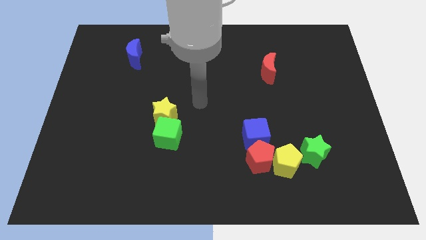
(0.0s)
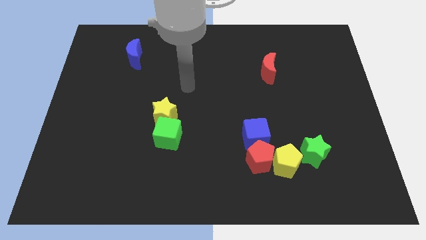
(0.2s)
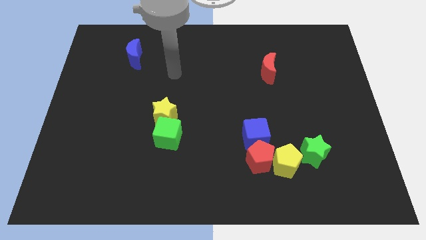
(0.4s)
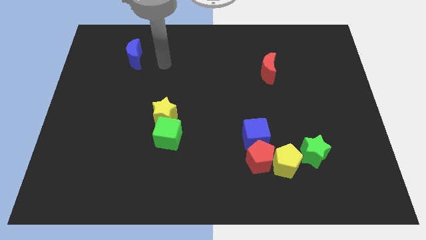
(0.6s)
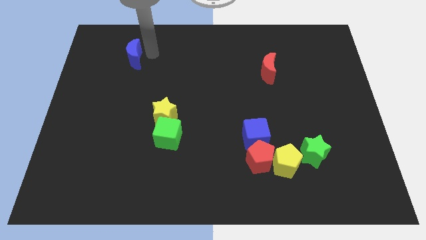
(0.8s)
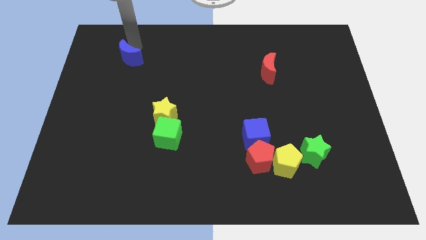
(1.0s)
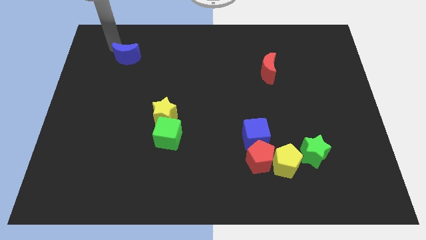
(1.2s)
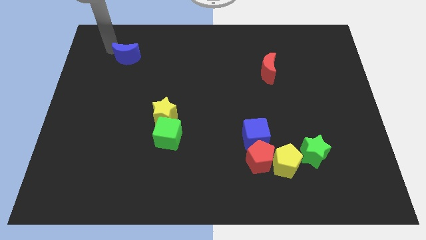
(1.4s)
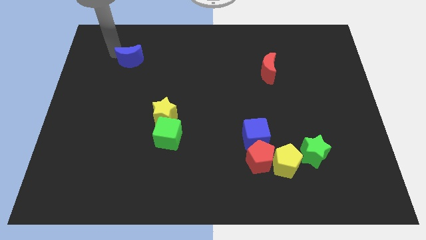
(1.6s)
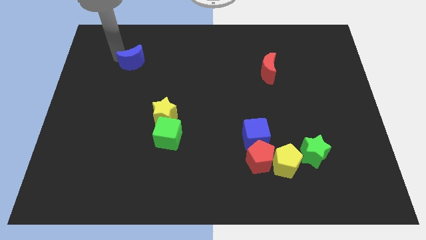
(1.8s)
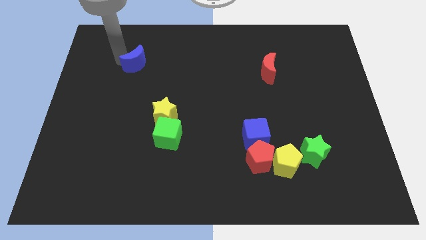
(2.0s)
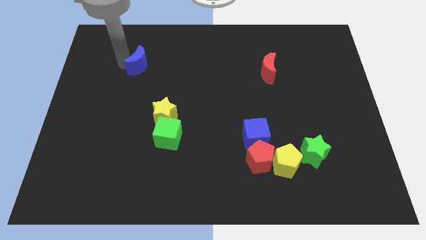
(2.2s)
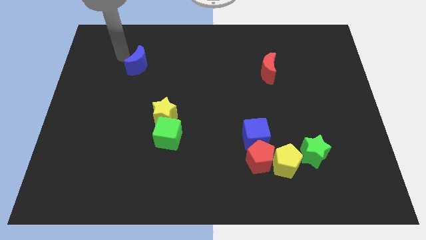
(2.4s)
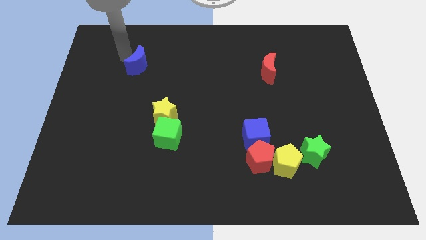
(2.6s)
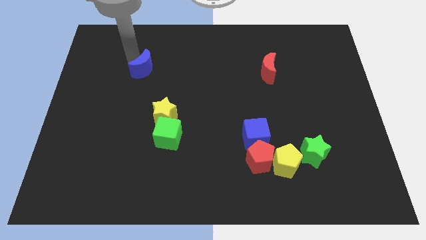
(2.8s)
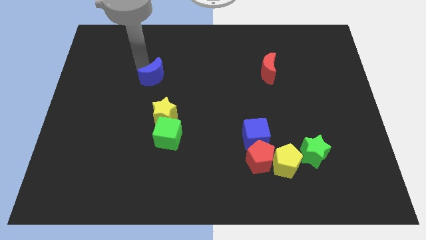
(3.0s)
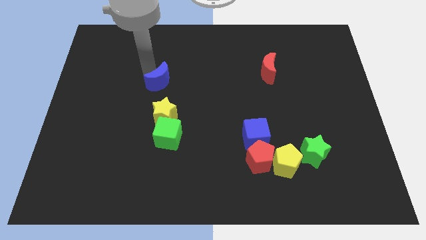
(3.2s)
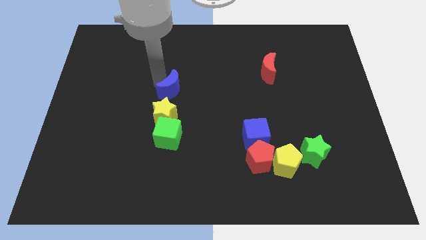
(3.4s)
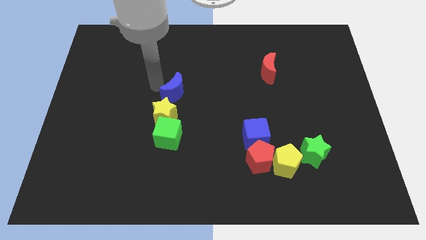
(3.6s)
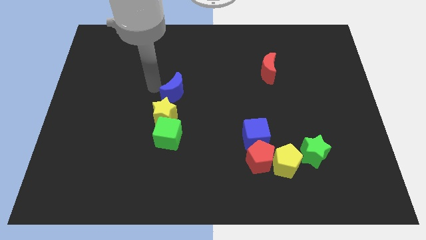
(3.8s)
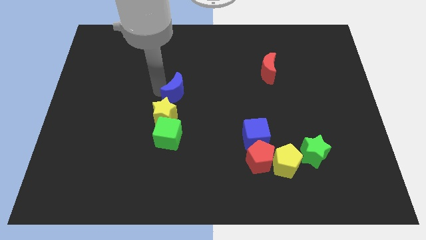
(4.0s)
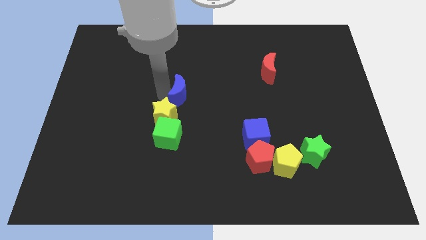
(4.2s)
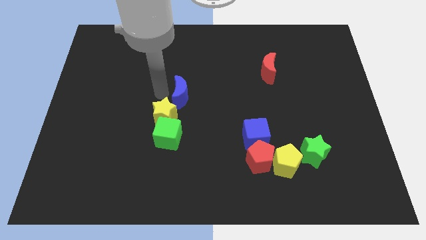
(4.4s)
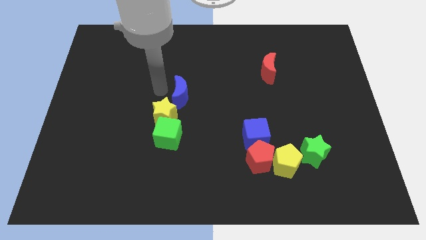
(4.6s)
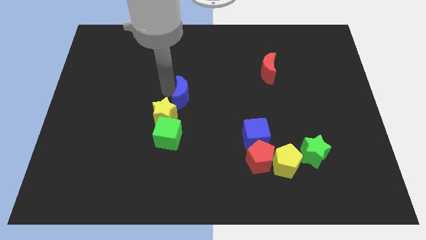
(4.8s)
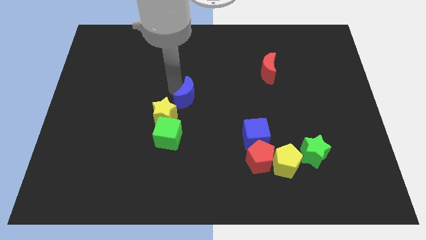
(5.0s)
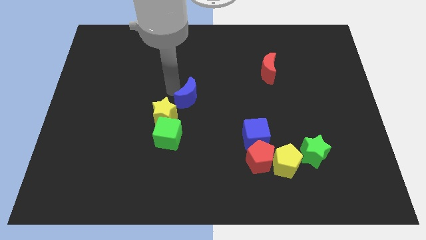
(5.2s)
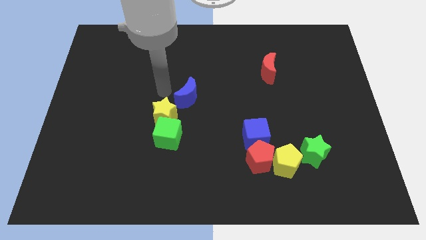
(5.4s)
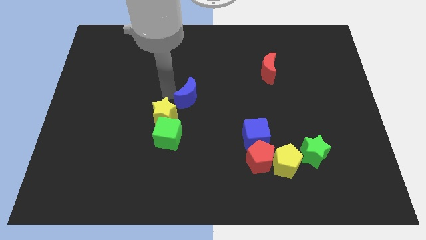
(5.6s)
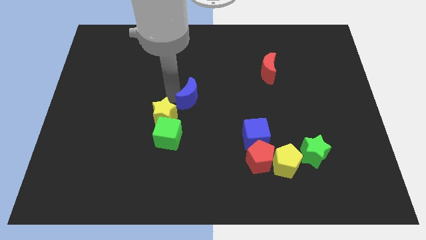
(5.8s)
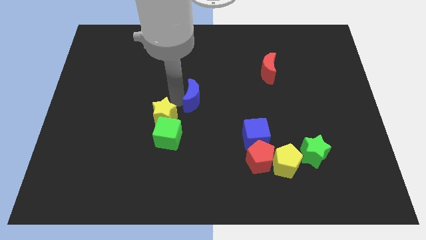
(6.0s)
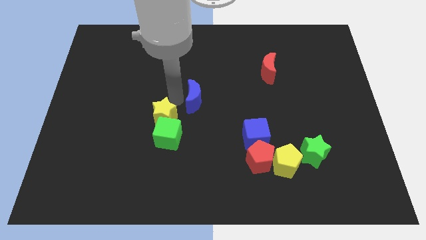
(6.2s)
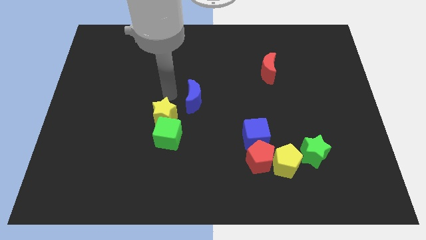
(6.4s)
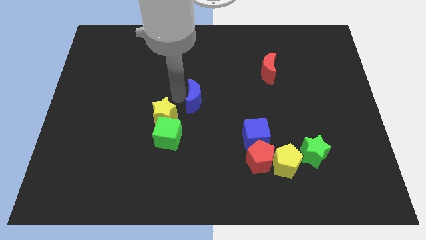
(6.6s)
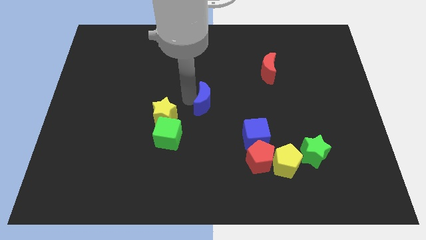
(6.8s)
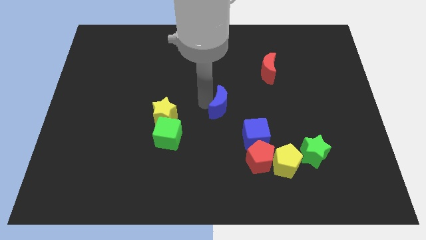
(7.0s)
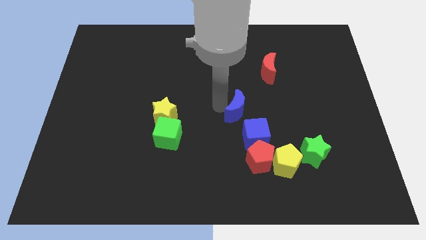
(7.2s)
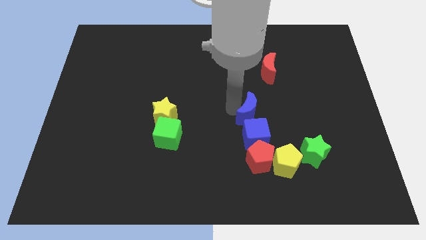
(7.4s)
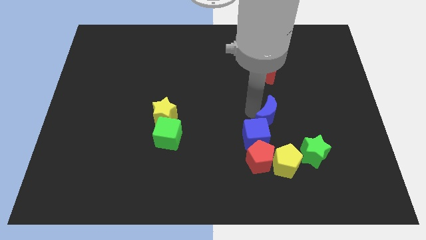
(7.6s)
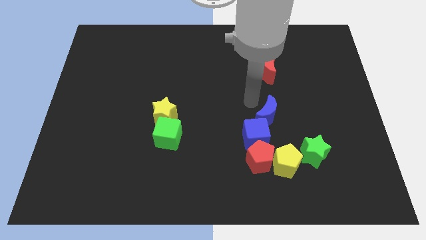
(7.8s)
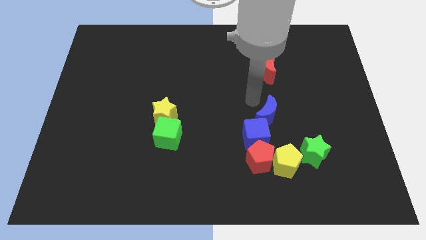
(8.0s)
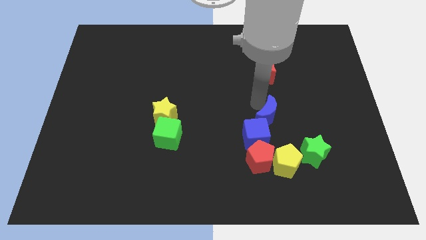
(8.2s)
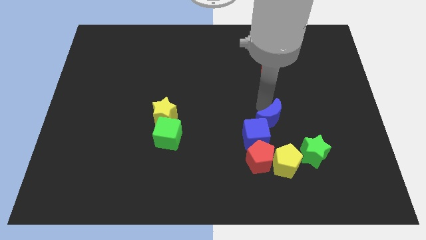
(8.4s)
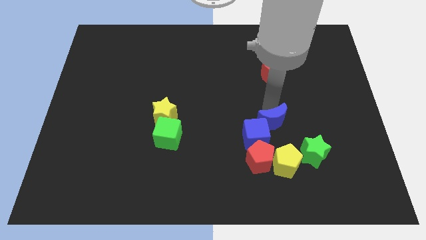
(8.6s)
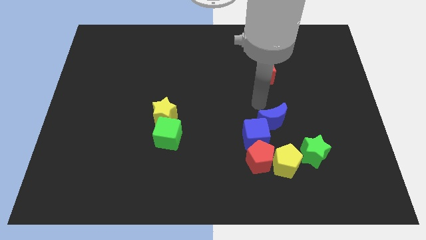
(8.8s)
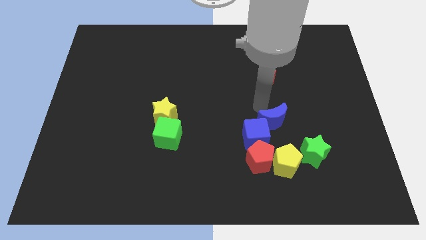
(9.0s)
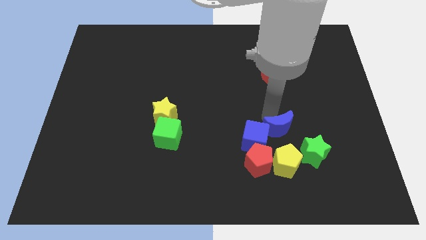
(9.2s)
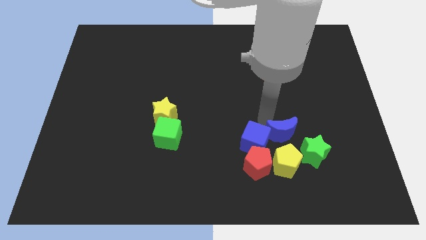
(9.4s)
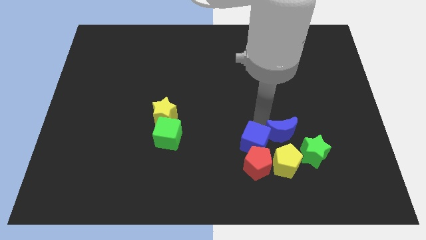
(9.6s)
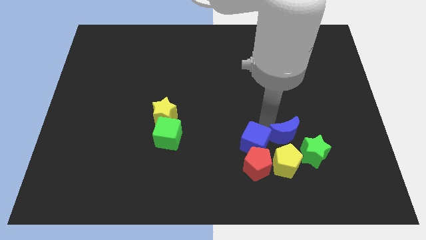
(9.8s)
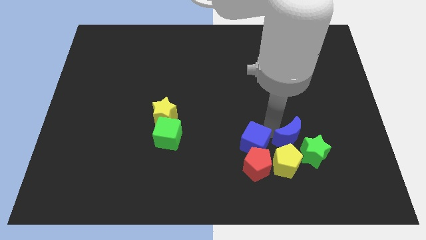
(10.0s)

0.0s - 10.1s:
slide the blue moon close to the green star

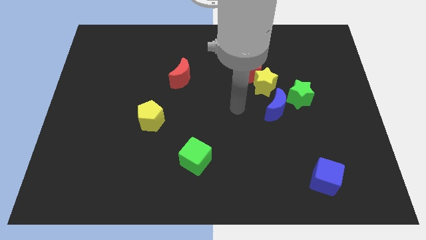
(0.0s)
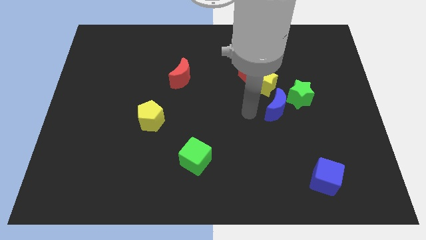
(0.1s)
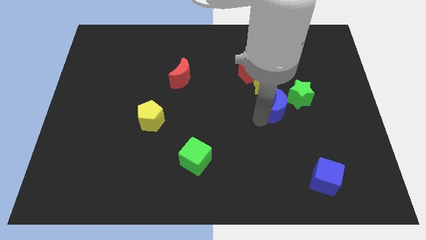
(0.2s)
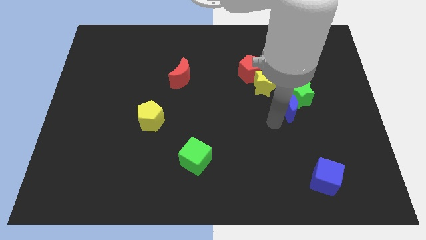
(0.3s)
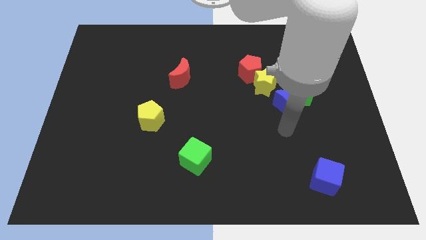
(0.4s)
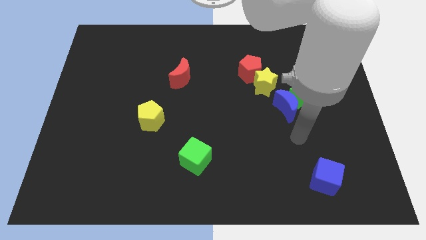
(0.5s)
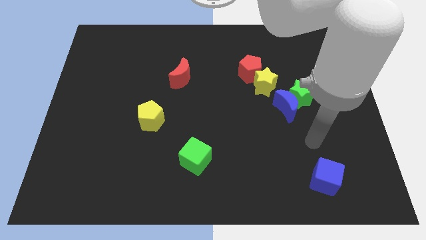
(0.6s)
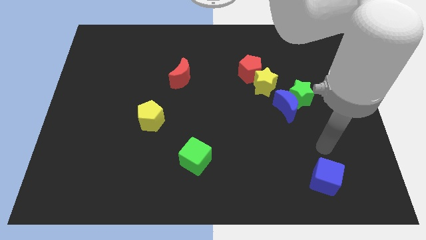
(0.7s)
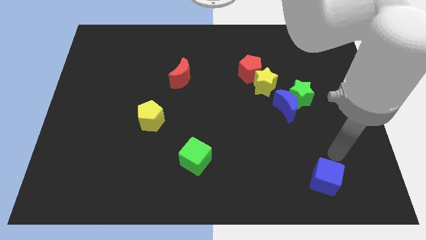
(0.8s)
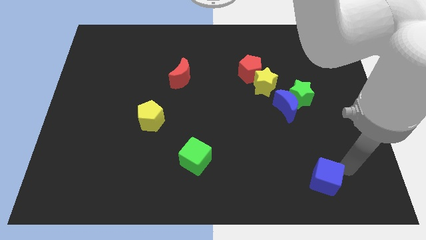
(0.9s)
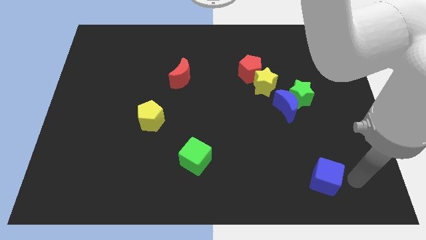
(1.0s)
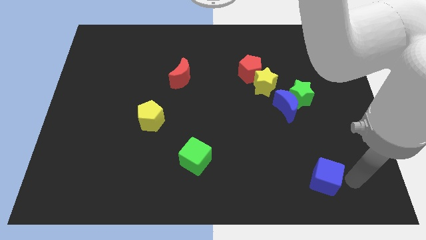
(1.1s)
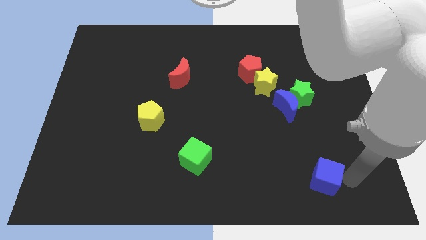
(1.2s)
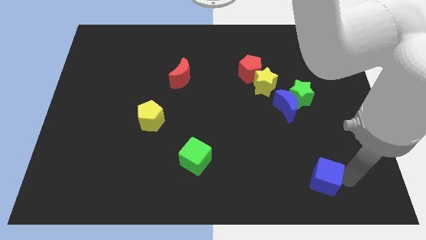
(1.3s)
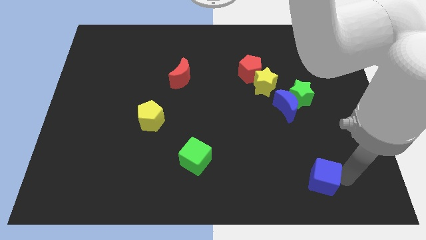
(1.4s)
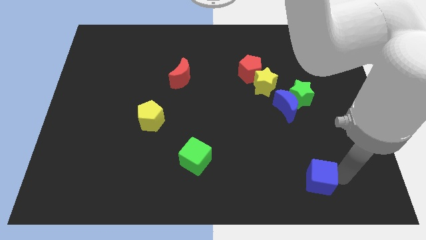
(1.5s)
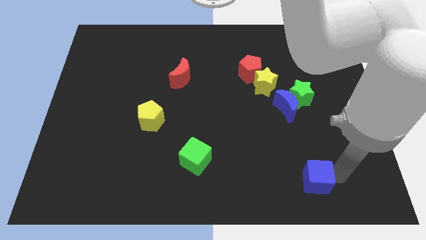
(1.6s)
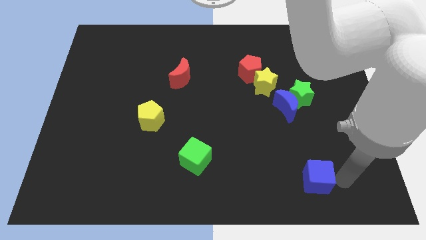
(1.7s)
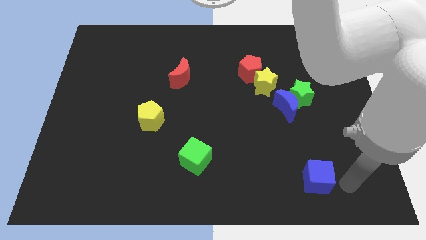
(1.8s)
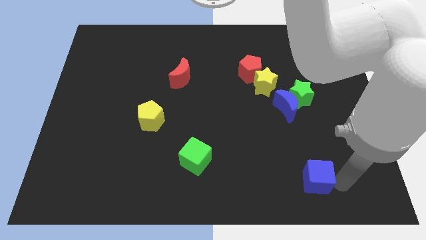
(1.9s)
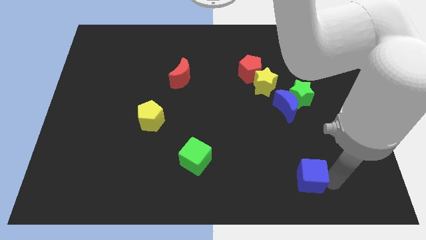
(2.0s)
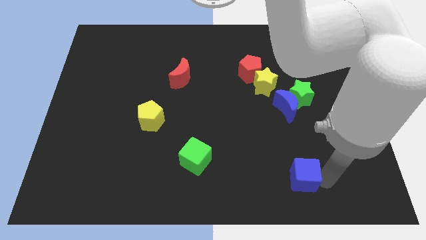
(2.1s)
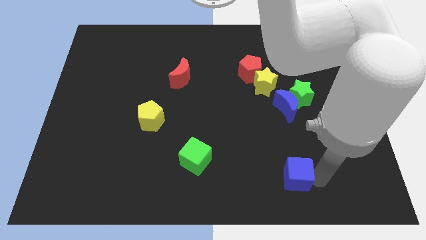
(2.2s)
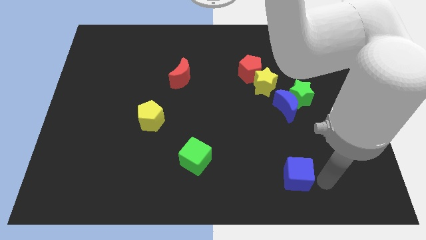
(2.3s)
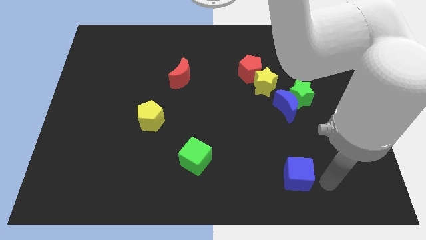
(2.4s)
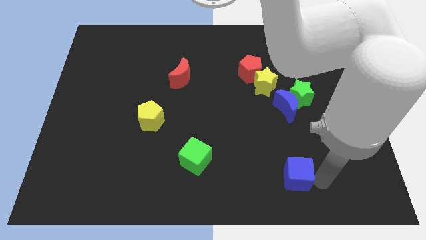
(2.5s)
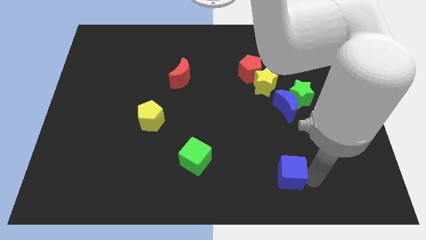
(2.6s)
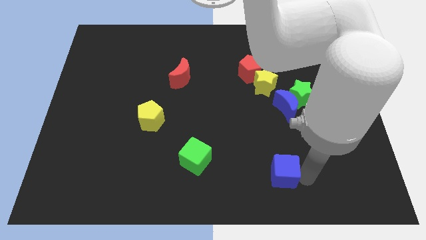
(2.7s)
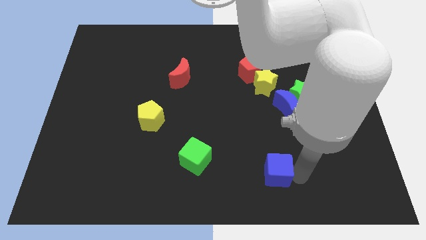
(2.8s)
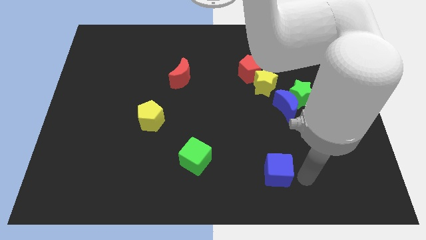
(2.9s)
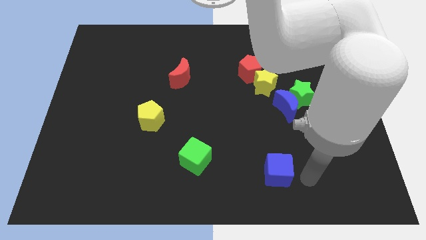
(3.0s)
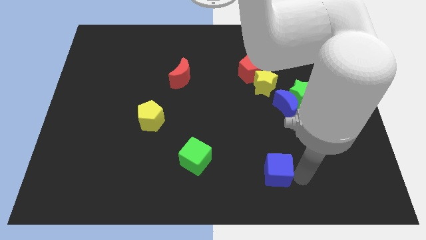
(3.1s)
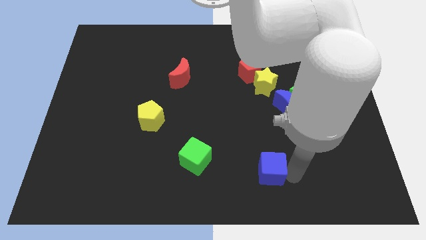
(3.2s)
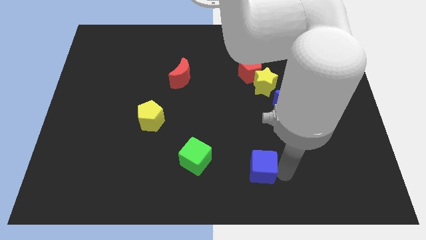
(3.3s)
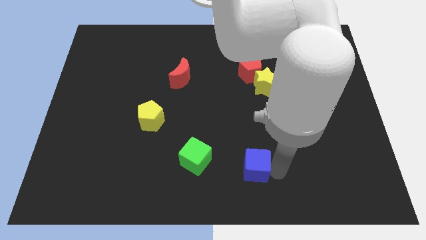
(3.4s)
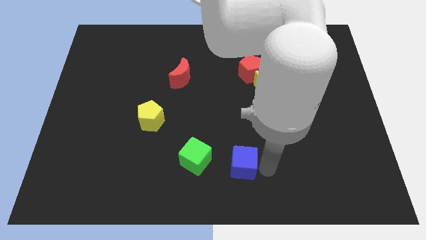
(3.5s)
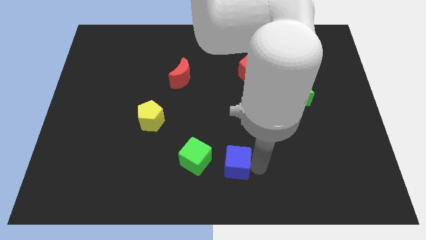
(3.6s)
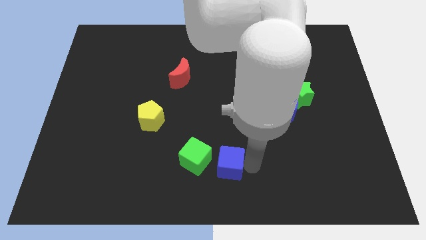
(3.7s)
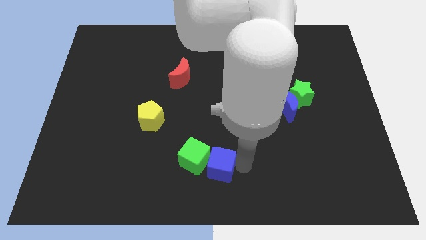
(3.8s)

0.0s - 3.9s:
push the blue cube to the green cube
